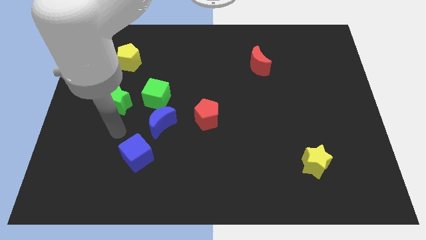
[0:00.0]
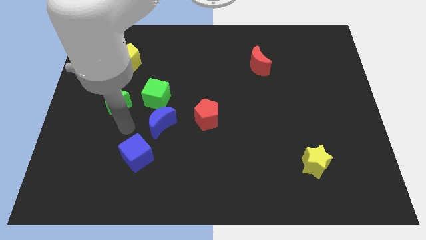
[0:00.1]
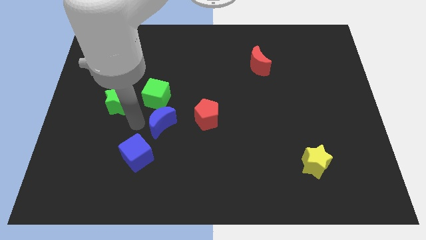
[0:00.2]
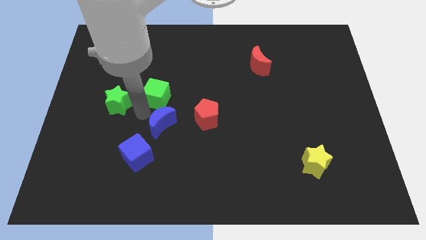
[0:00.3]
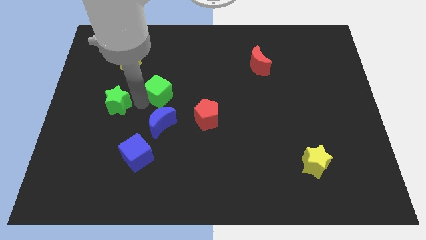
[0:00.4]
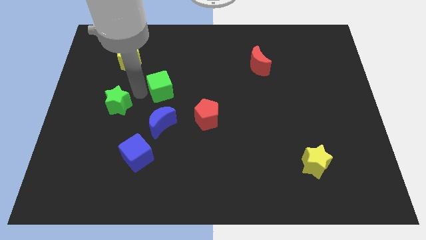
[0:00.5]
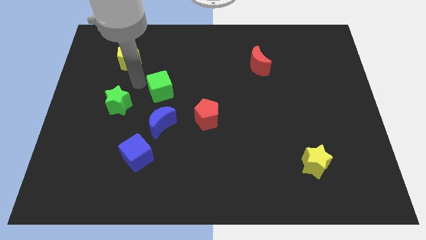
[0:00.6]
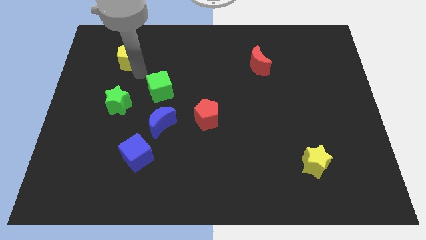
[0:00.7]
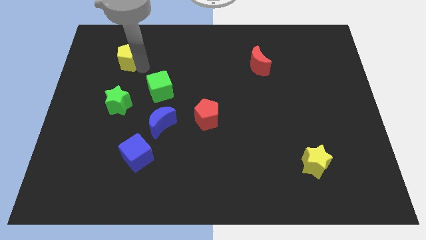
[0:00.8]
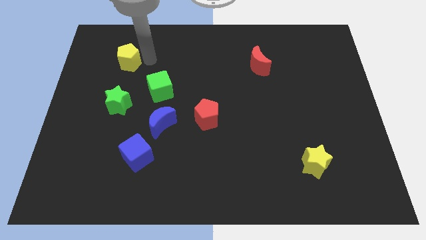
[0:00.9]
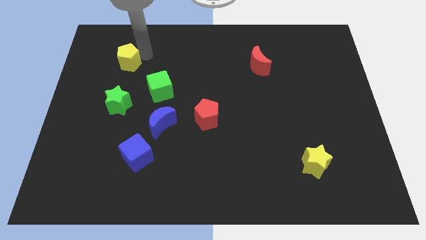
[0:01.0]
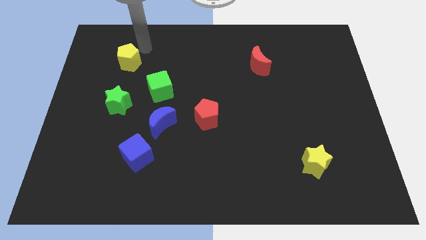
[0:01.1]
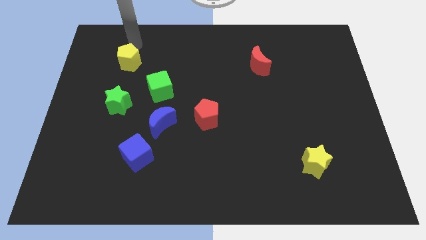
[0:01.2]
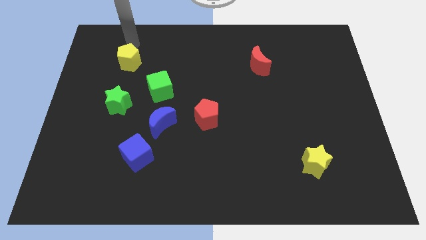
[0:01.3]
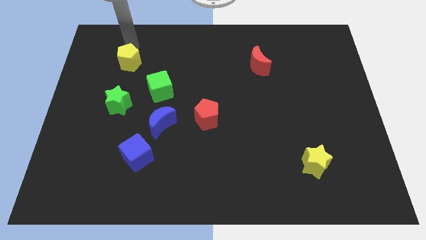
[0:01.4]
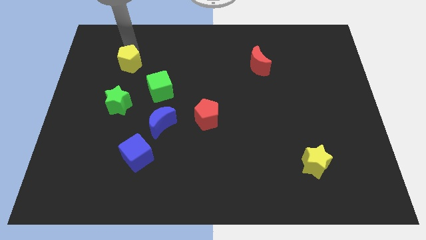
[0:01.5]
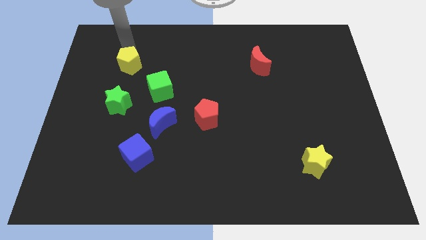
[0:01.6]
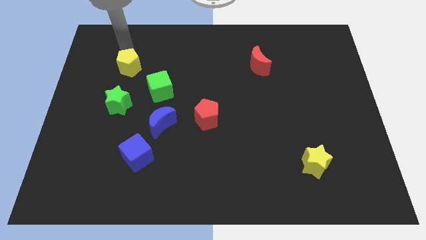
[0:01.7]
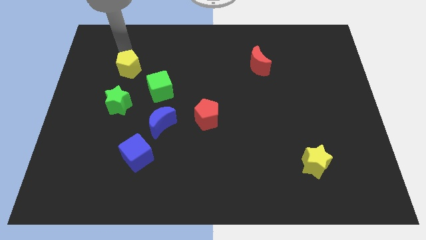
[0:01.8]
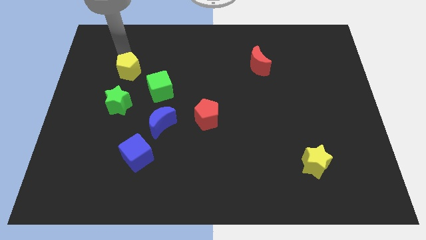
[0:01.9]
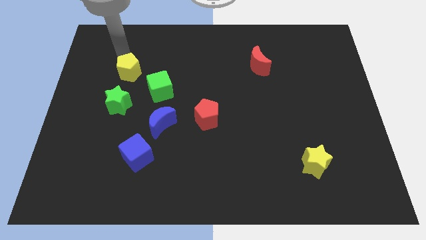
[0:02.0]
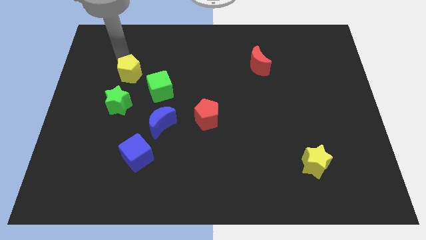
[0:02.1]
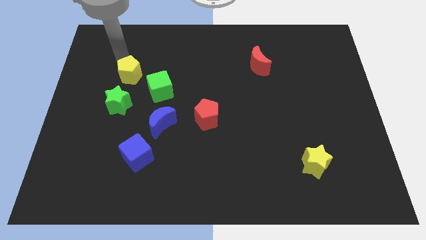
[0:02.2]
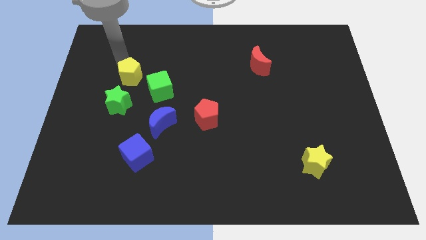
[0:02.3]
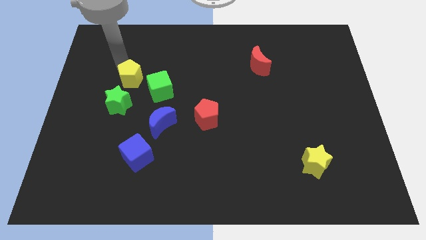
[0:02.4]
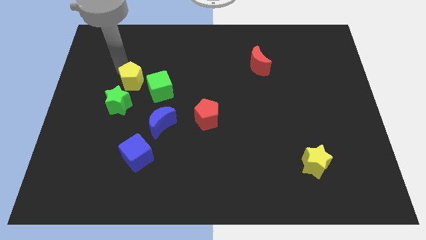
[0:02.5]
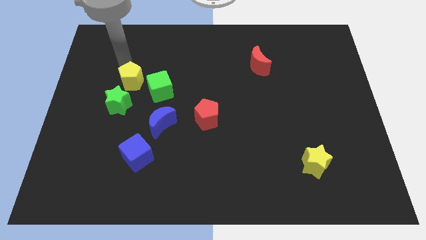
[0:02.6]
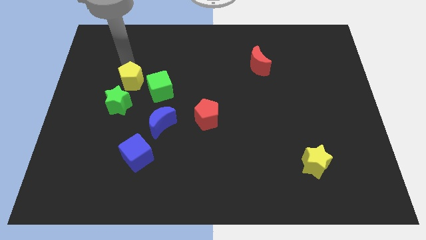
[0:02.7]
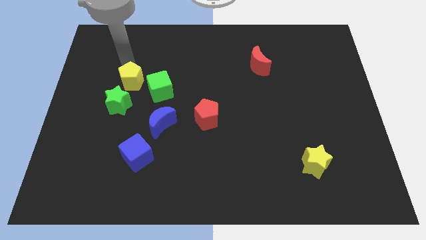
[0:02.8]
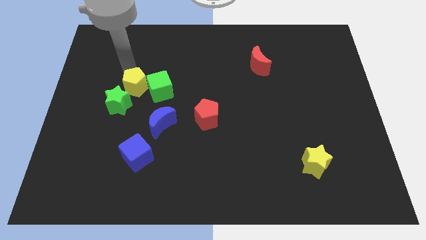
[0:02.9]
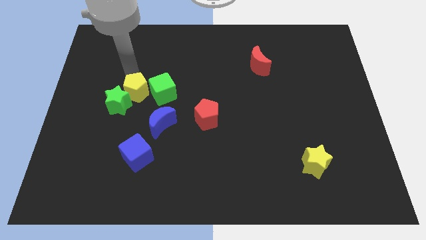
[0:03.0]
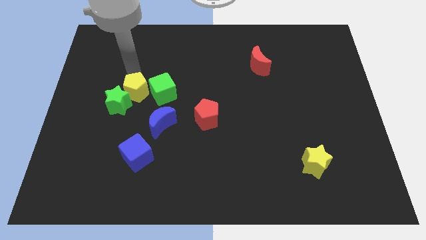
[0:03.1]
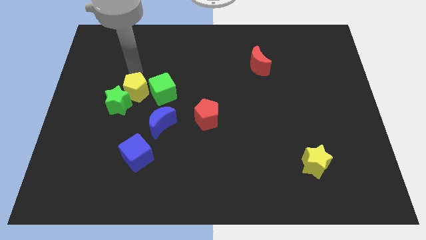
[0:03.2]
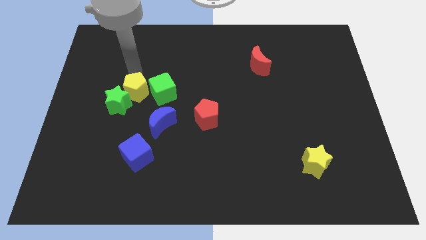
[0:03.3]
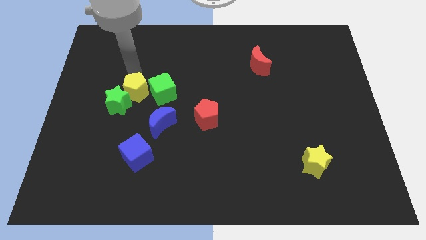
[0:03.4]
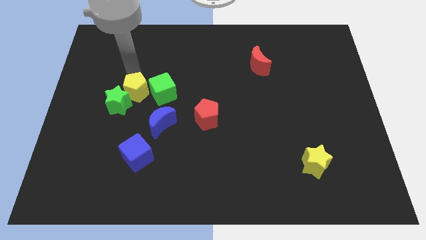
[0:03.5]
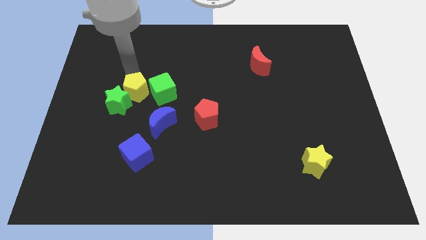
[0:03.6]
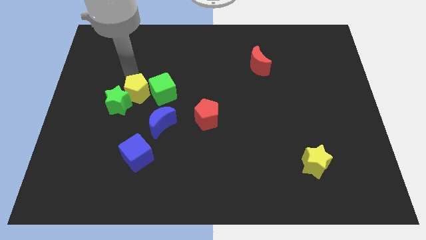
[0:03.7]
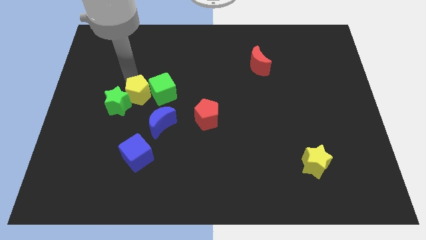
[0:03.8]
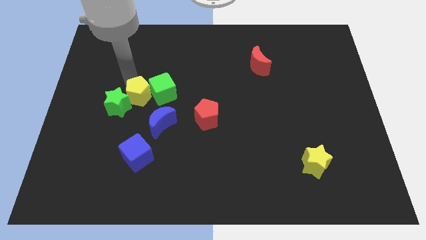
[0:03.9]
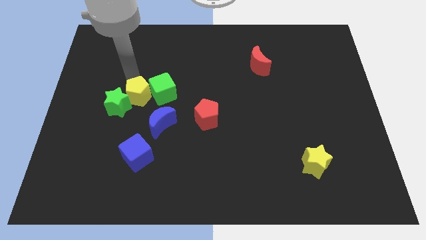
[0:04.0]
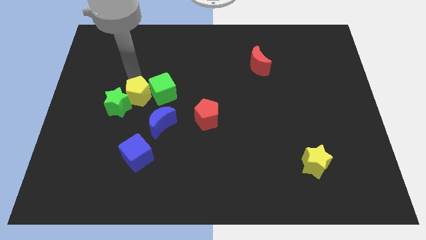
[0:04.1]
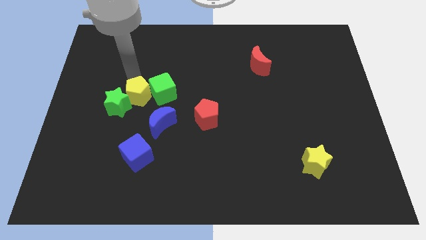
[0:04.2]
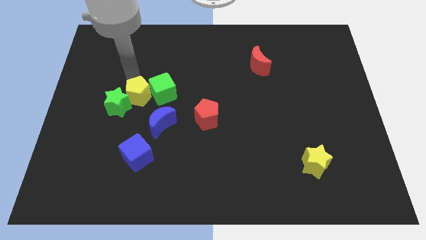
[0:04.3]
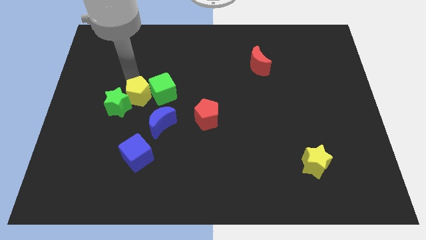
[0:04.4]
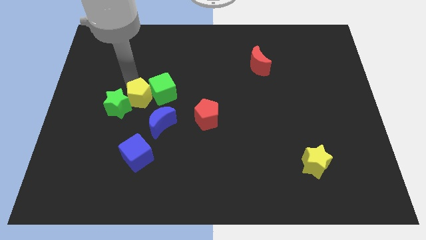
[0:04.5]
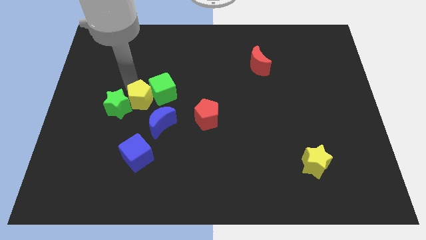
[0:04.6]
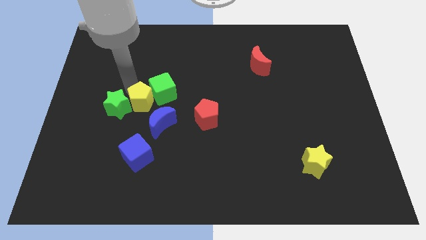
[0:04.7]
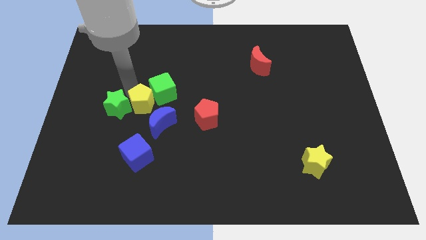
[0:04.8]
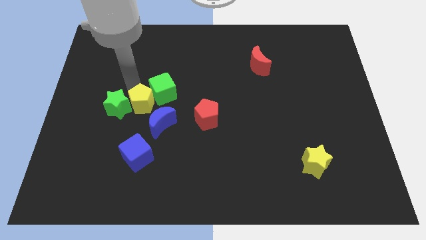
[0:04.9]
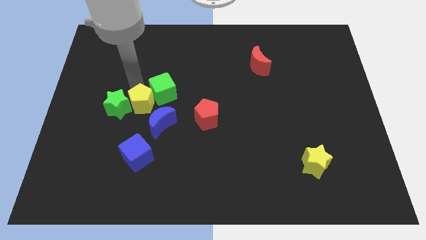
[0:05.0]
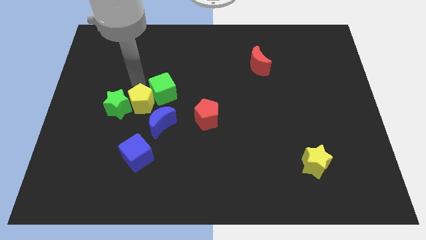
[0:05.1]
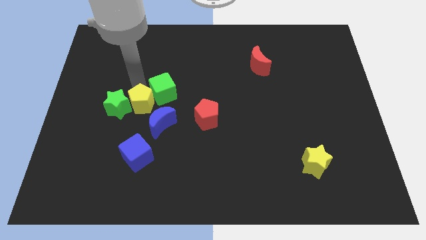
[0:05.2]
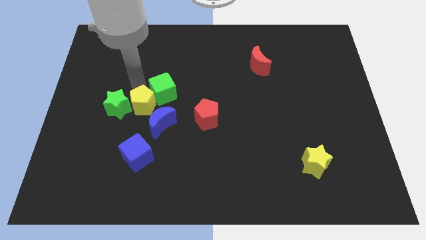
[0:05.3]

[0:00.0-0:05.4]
push the yellow pentagon to the bottom of the green cube
